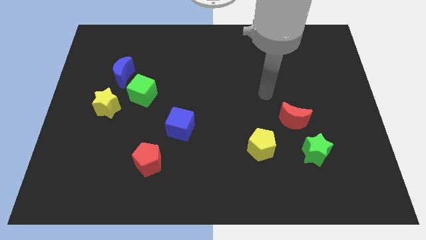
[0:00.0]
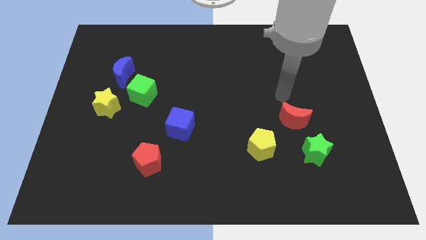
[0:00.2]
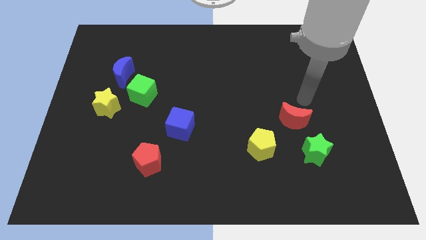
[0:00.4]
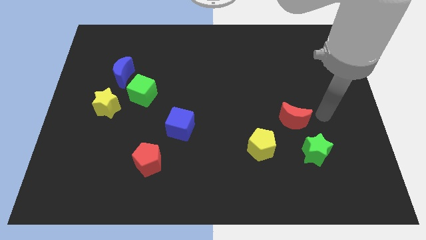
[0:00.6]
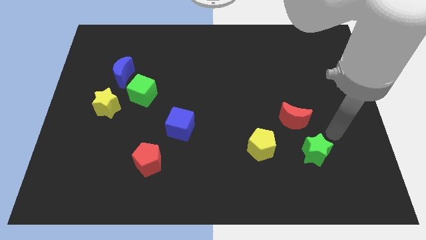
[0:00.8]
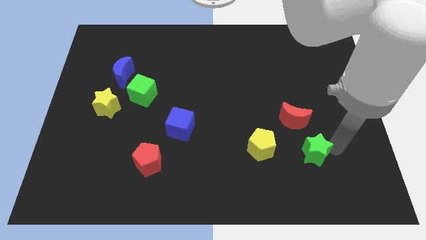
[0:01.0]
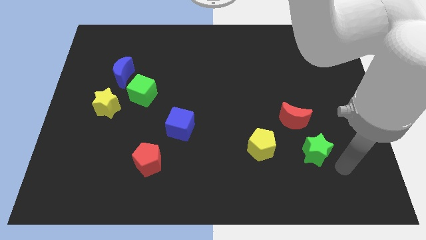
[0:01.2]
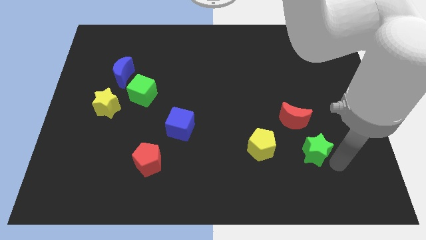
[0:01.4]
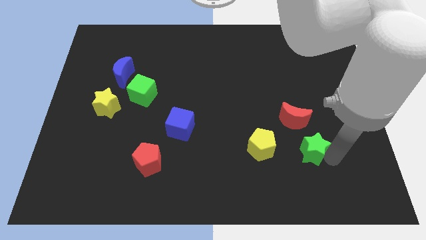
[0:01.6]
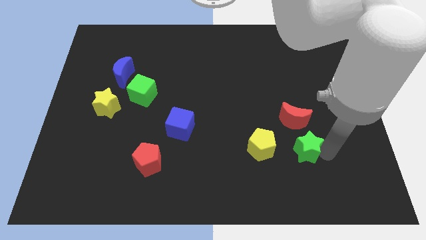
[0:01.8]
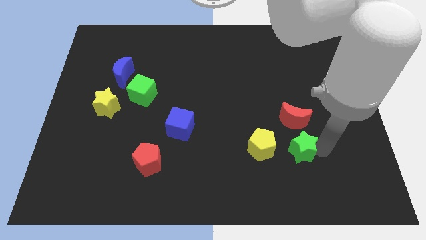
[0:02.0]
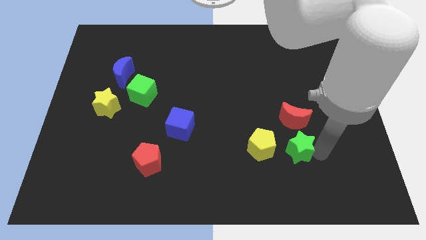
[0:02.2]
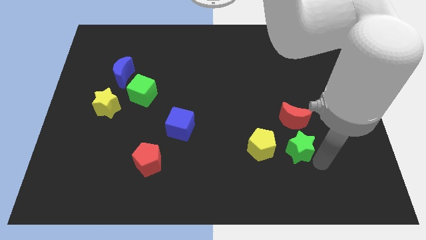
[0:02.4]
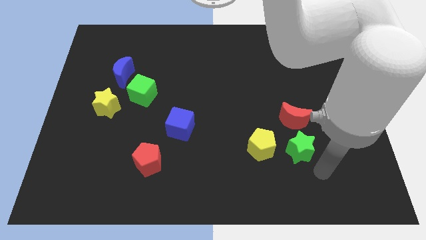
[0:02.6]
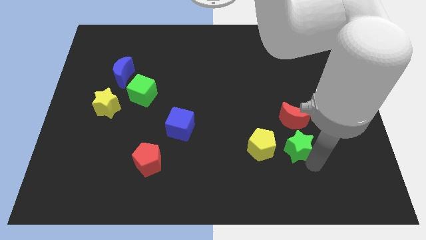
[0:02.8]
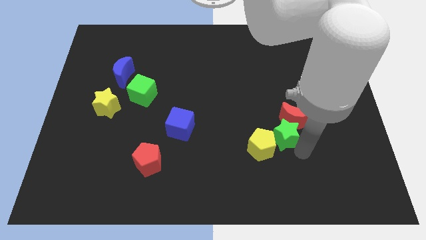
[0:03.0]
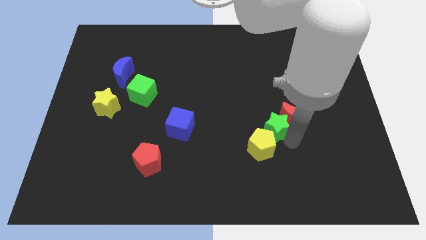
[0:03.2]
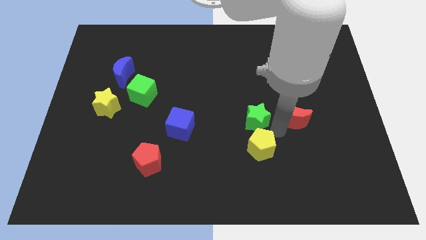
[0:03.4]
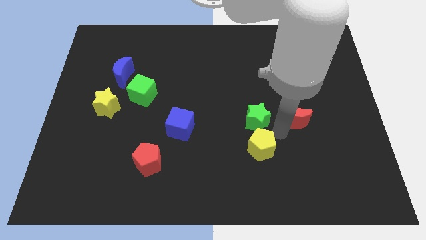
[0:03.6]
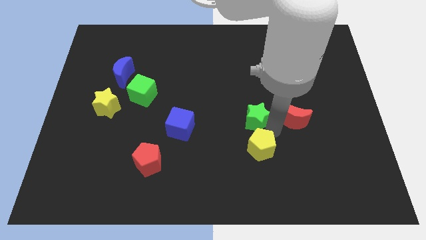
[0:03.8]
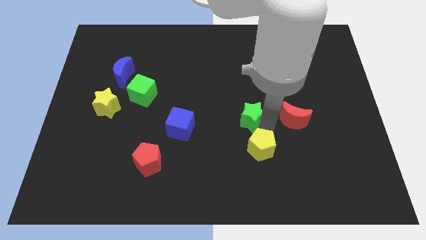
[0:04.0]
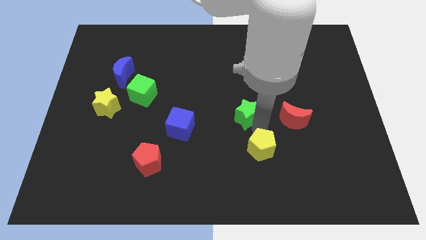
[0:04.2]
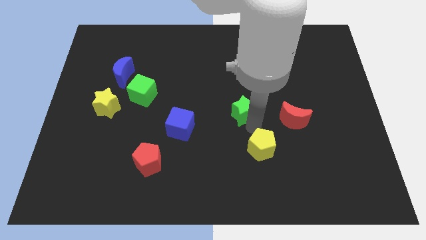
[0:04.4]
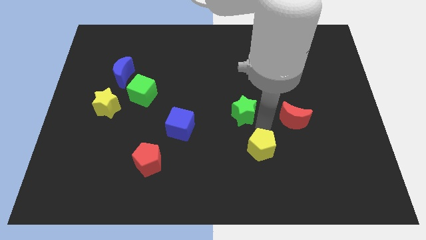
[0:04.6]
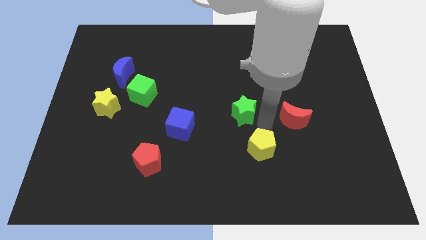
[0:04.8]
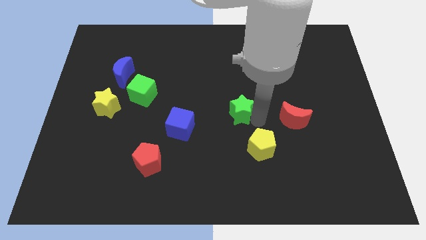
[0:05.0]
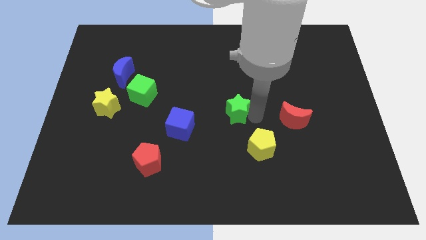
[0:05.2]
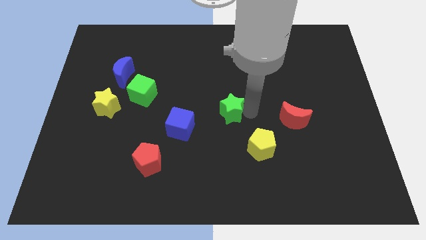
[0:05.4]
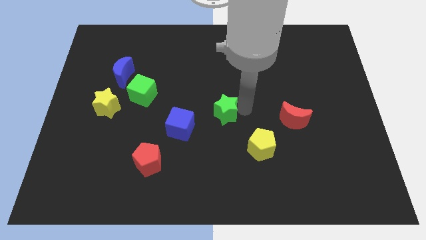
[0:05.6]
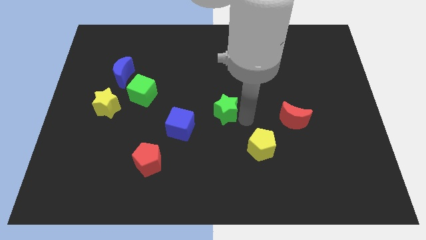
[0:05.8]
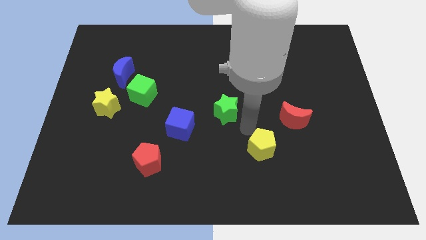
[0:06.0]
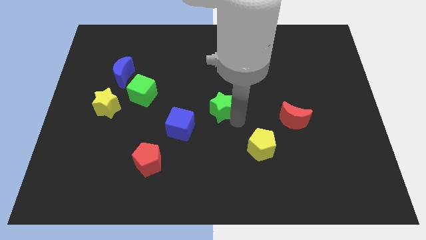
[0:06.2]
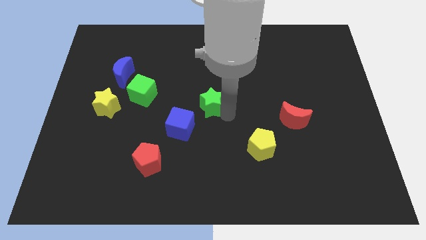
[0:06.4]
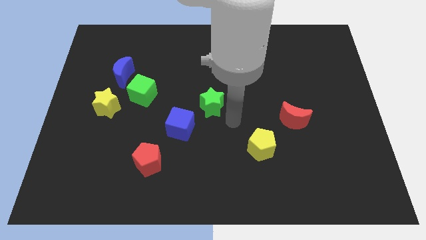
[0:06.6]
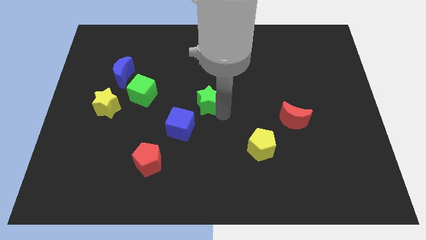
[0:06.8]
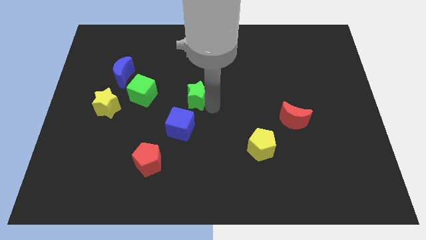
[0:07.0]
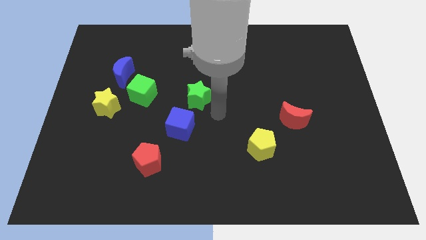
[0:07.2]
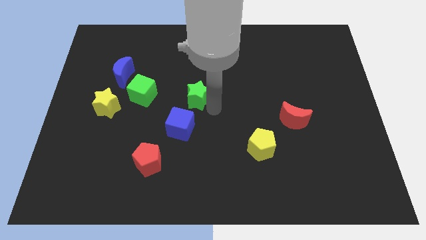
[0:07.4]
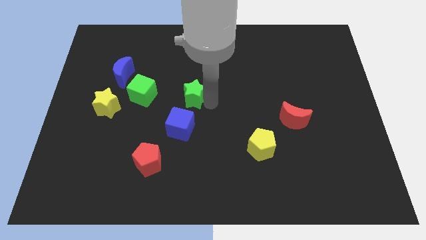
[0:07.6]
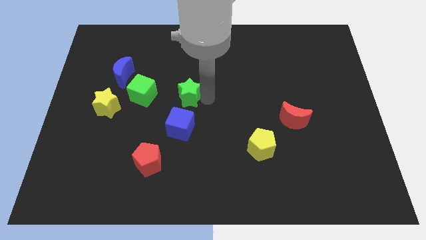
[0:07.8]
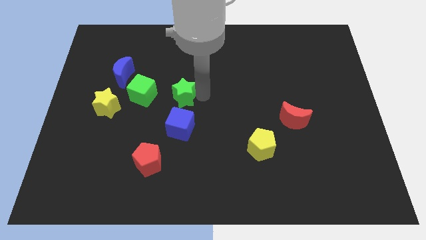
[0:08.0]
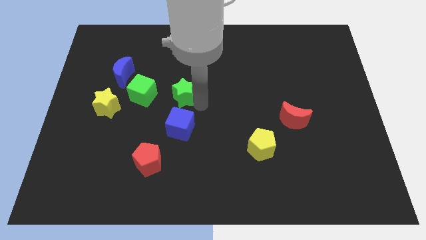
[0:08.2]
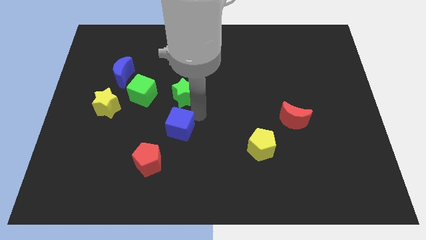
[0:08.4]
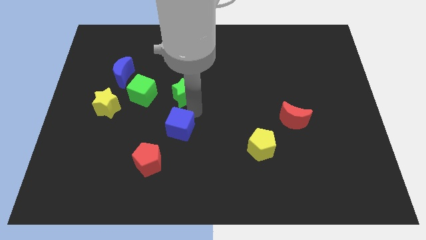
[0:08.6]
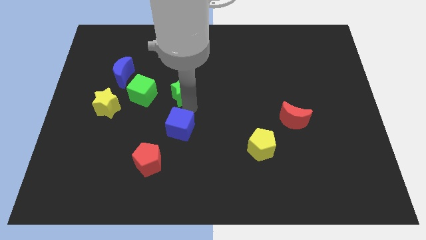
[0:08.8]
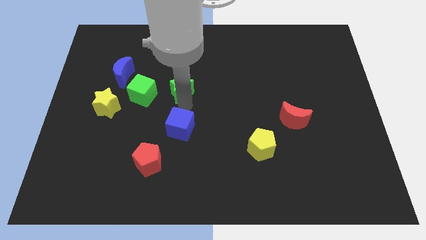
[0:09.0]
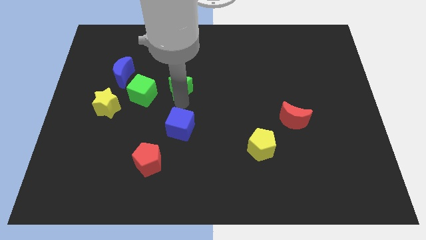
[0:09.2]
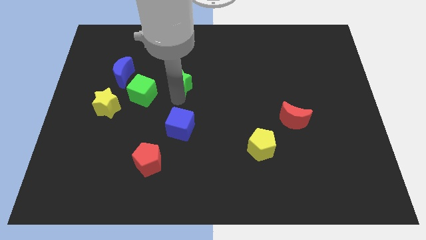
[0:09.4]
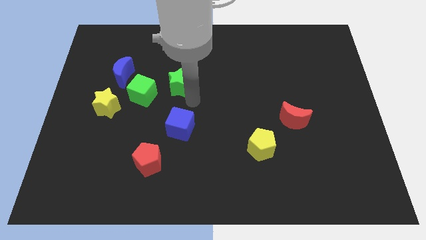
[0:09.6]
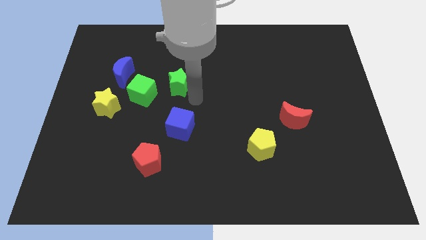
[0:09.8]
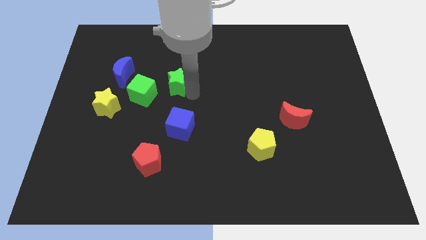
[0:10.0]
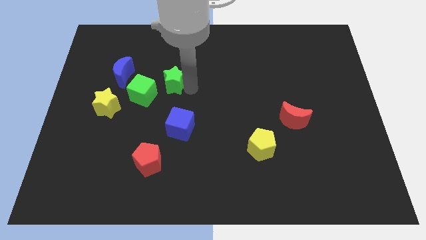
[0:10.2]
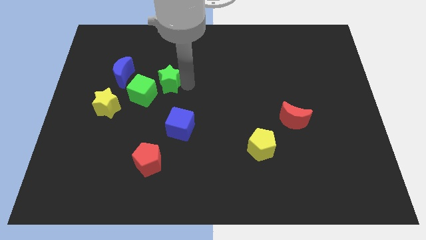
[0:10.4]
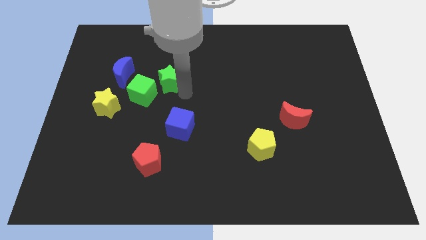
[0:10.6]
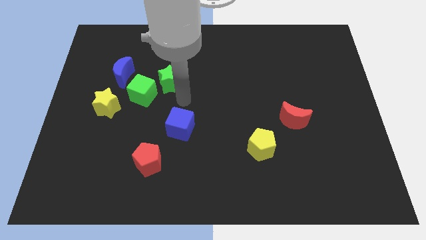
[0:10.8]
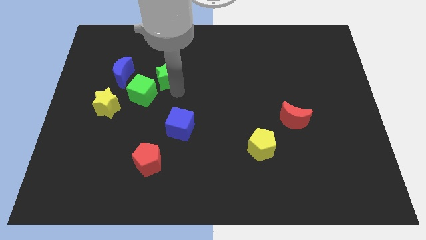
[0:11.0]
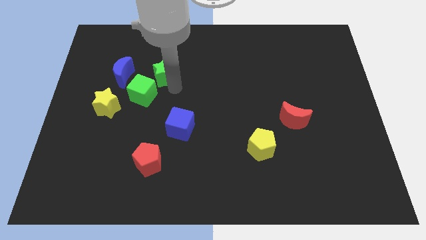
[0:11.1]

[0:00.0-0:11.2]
move the green star to the top side of the green cube
